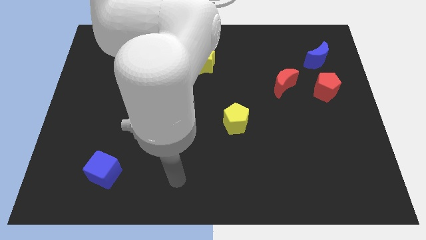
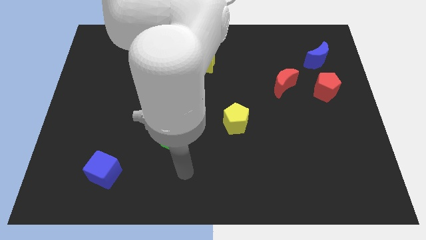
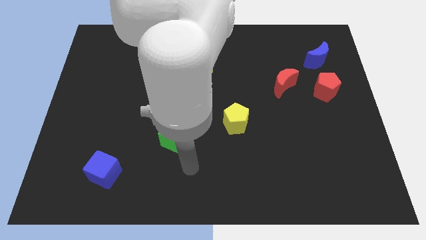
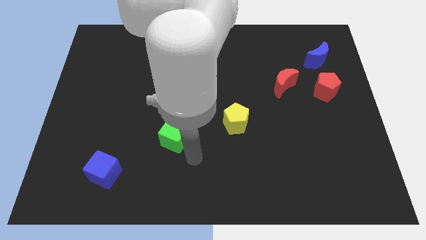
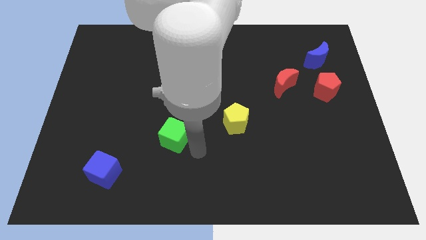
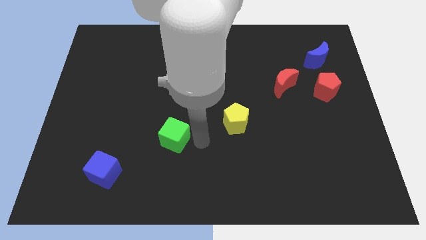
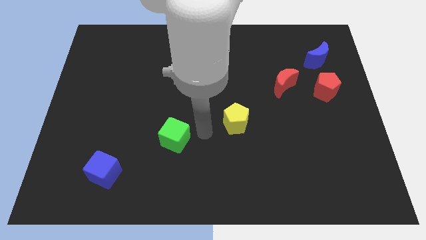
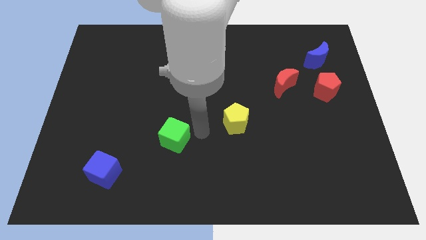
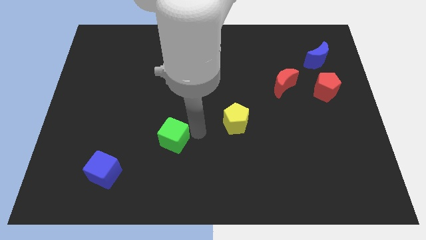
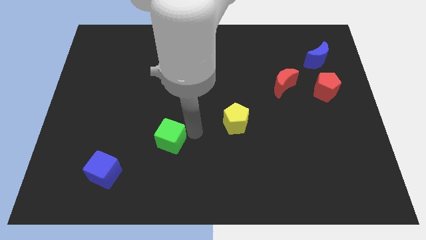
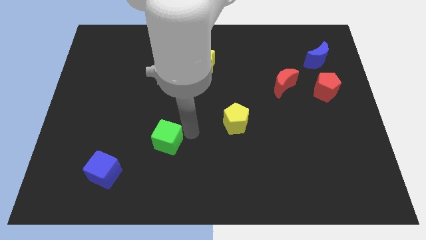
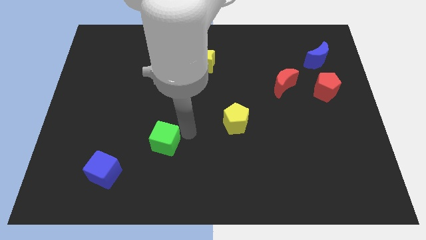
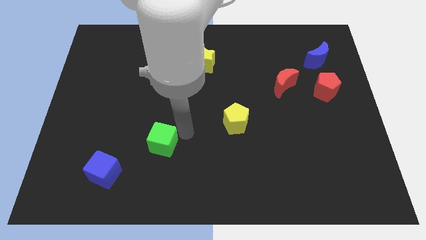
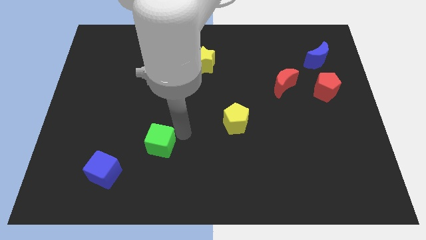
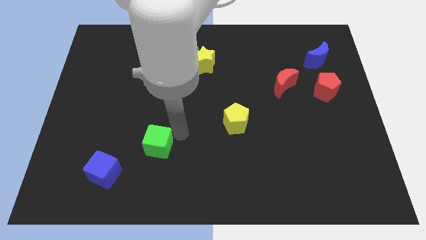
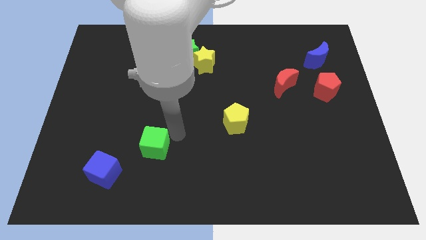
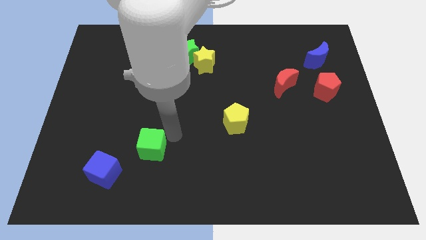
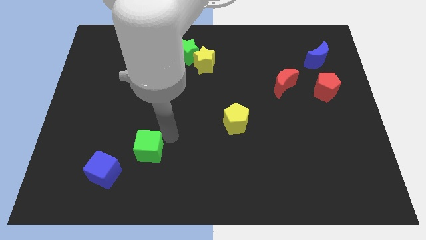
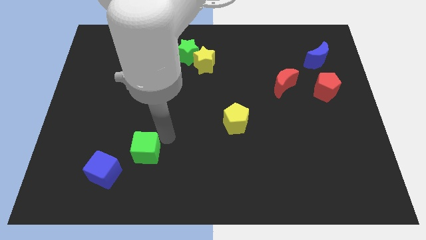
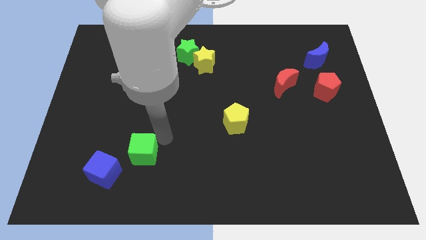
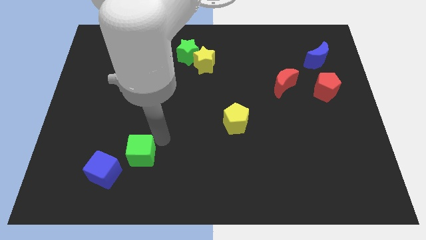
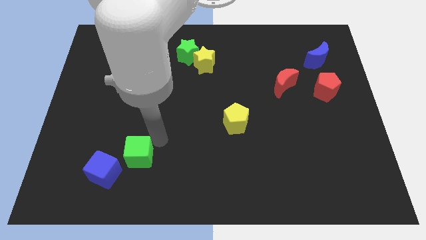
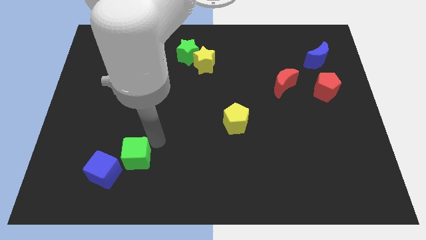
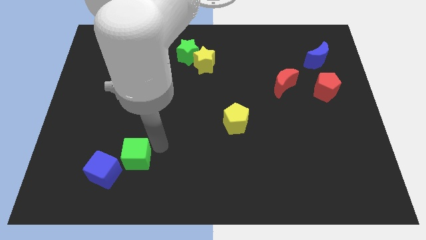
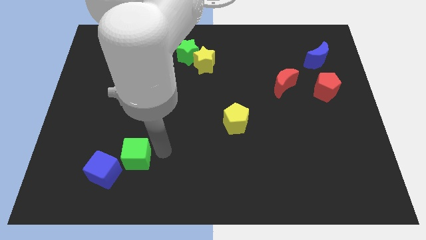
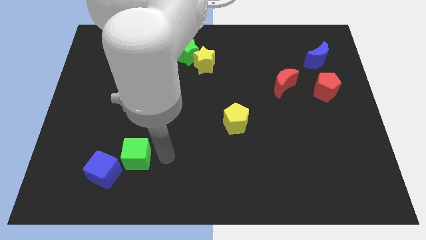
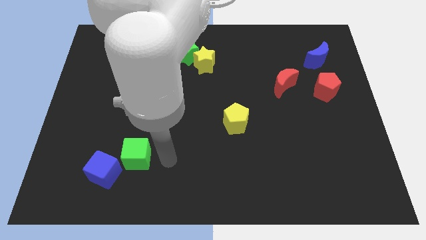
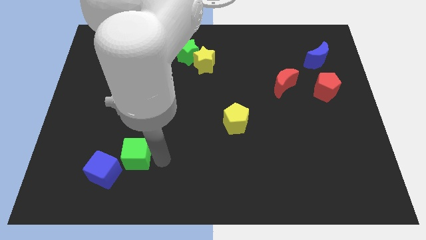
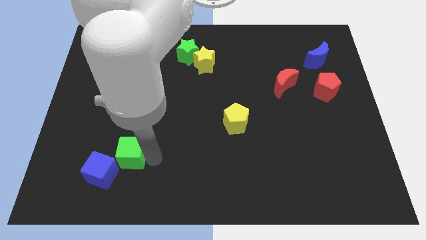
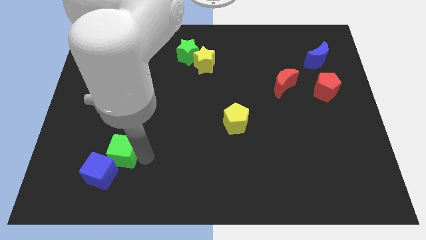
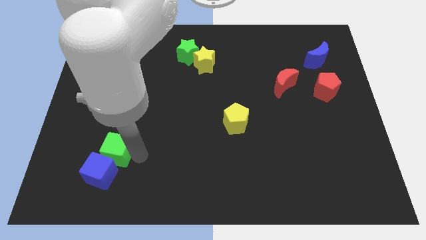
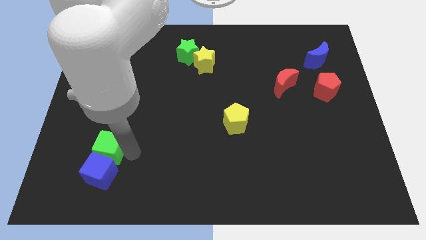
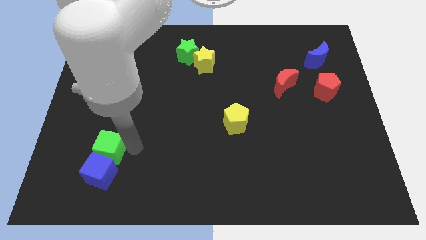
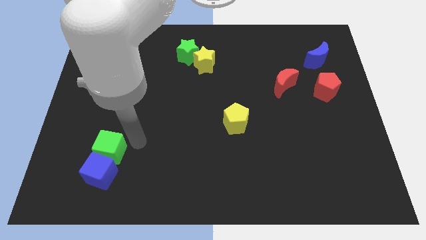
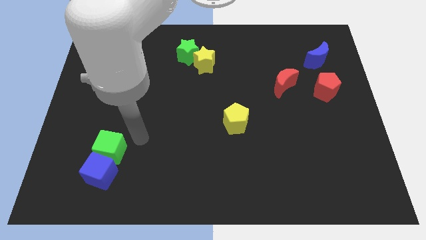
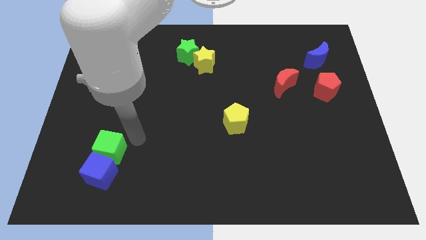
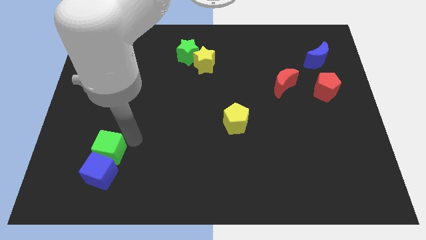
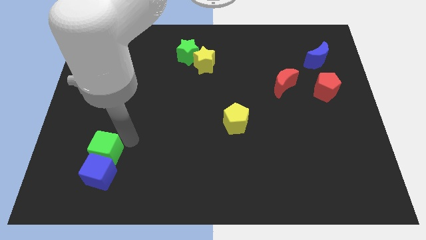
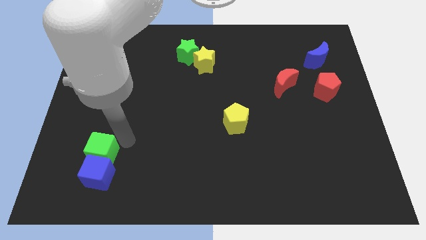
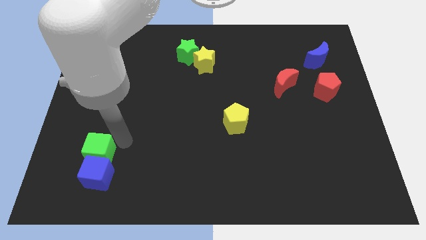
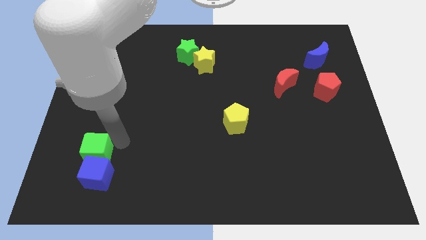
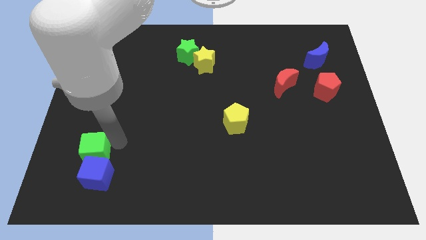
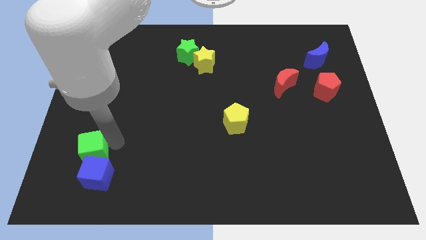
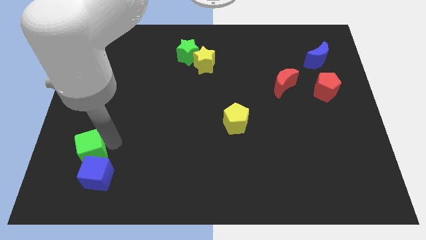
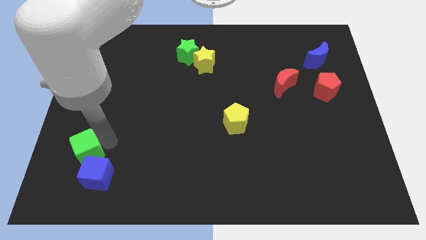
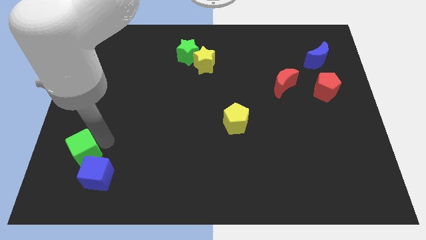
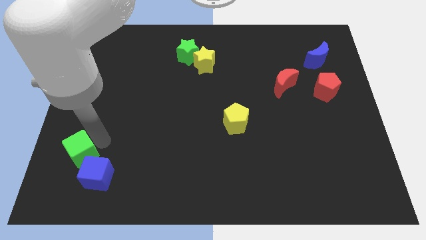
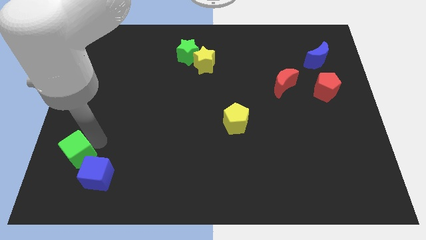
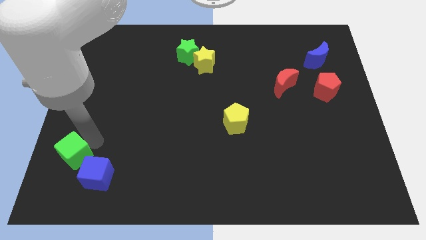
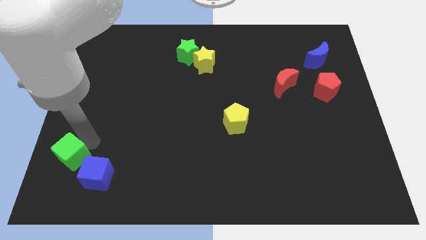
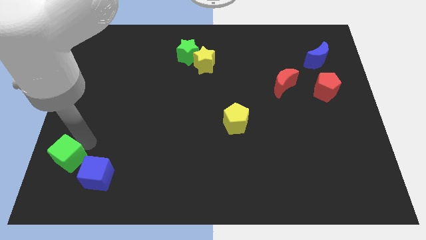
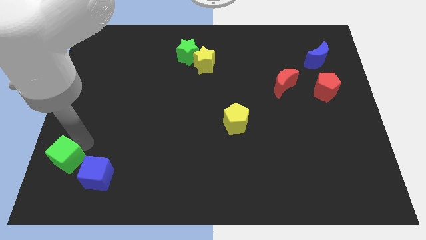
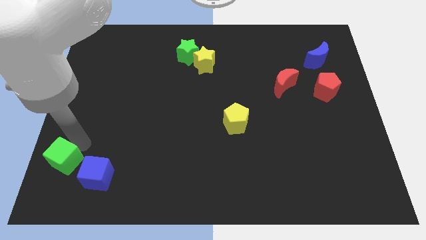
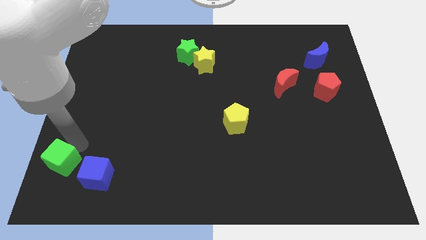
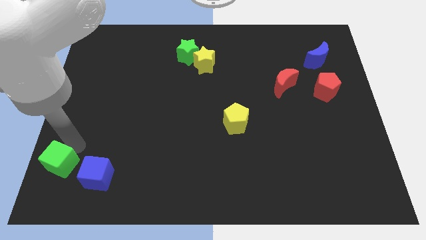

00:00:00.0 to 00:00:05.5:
push the green cube to the bottom left
